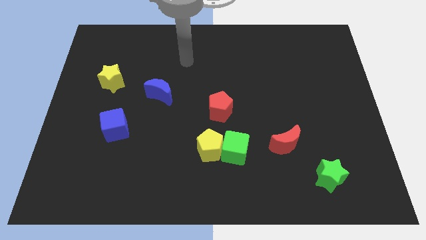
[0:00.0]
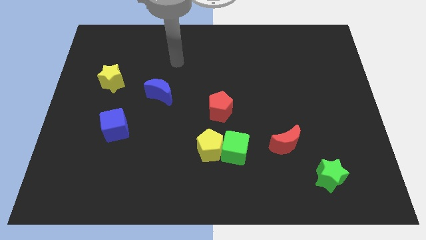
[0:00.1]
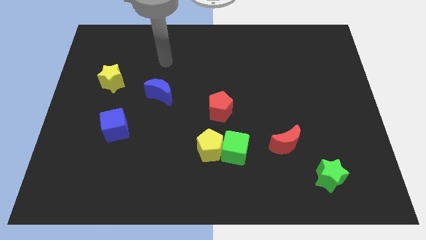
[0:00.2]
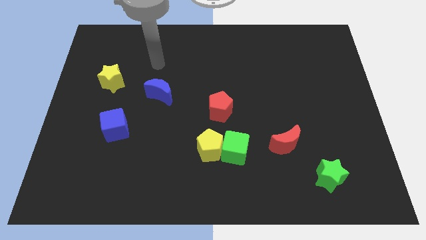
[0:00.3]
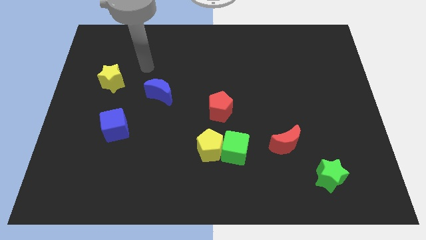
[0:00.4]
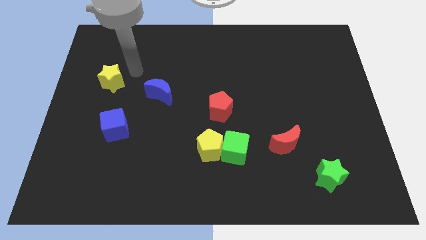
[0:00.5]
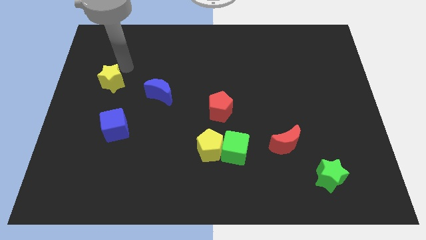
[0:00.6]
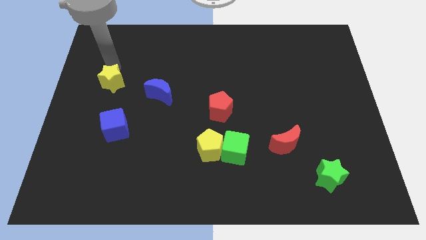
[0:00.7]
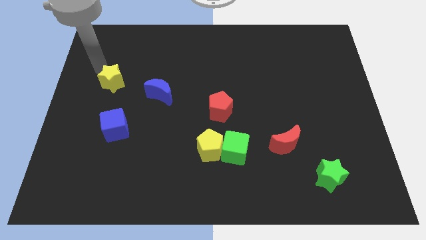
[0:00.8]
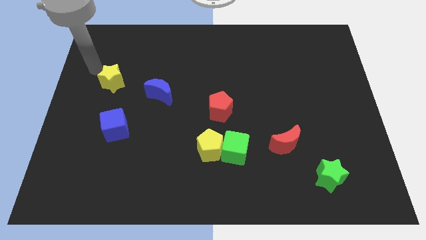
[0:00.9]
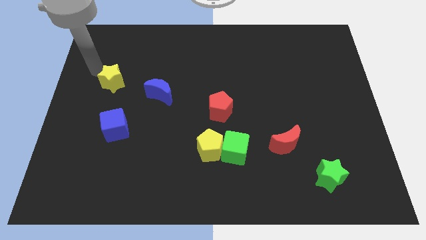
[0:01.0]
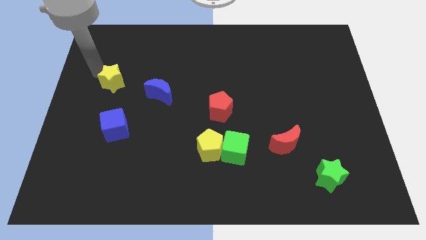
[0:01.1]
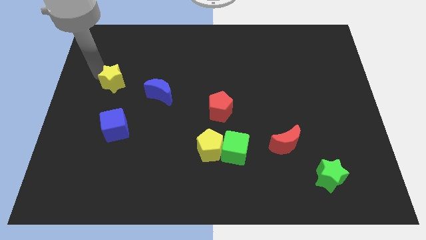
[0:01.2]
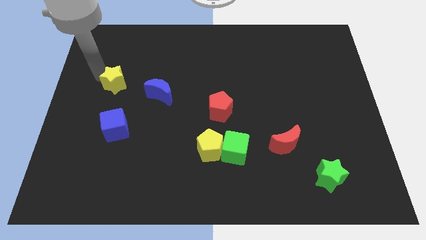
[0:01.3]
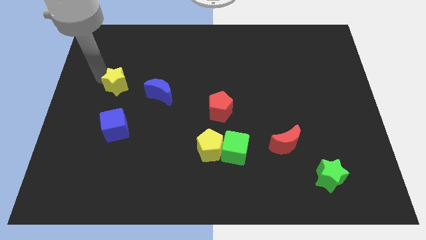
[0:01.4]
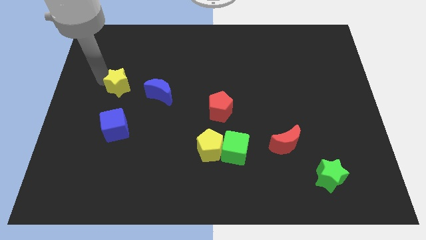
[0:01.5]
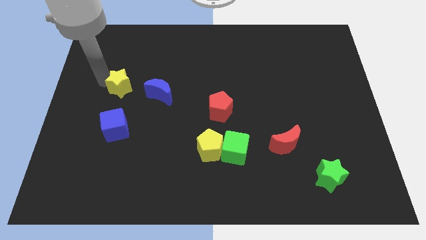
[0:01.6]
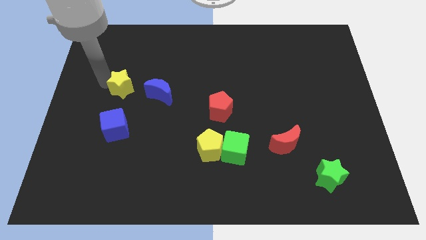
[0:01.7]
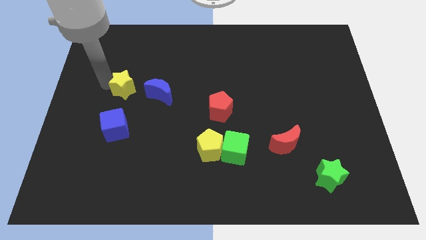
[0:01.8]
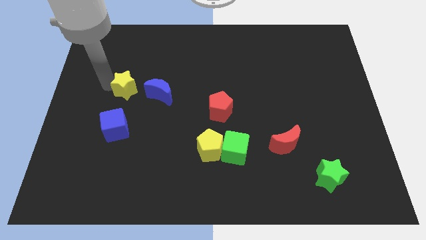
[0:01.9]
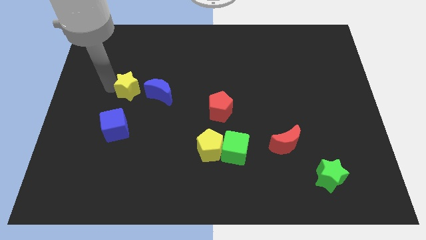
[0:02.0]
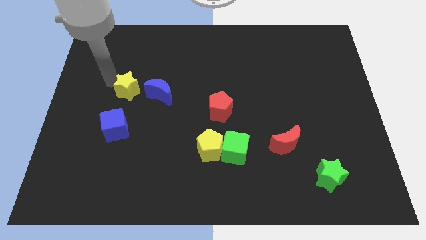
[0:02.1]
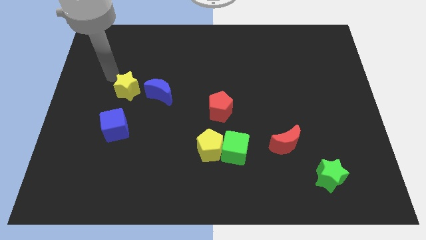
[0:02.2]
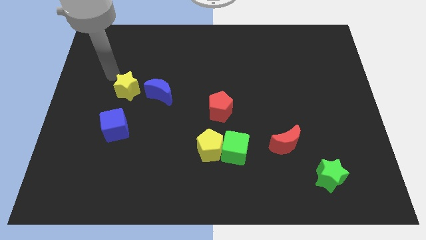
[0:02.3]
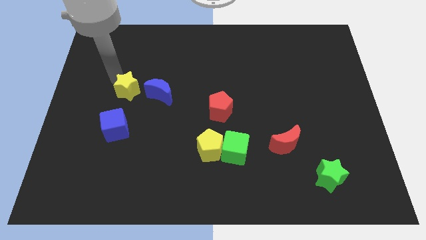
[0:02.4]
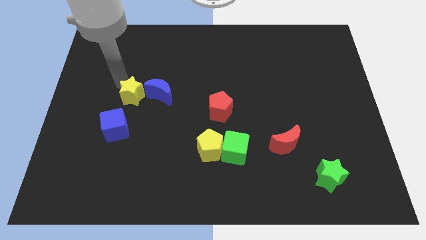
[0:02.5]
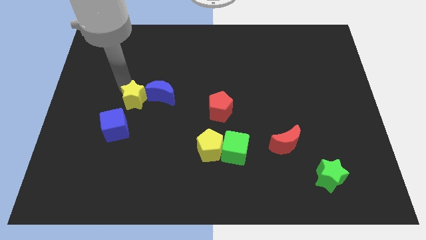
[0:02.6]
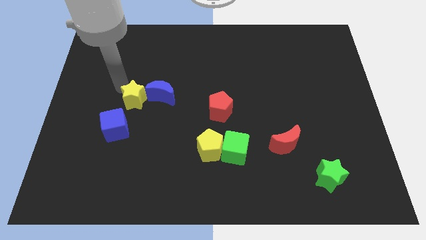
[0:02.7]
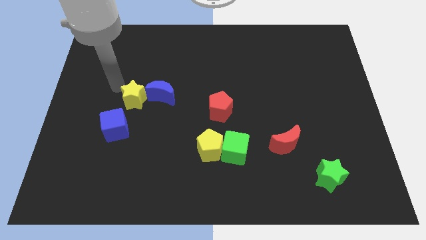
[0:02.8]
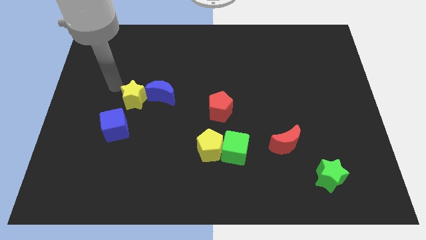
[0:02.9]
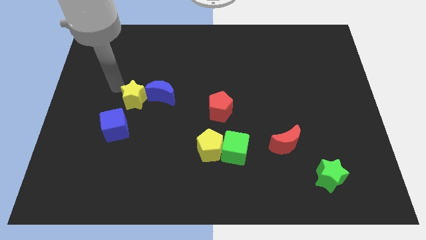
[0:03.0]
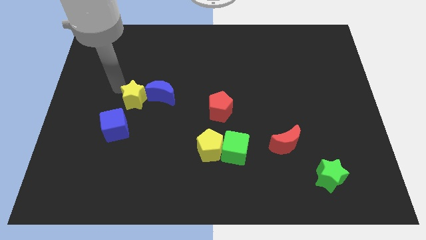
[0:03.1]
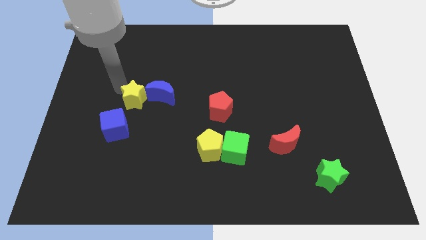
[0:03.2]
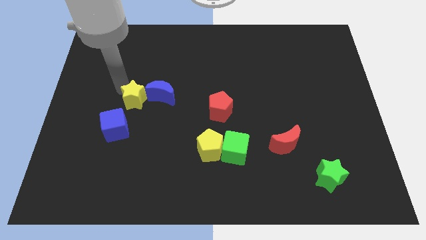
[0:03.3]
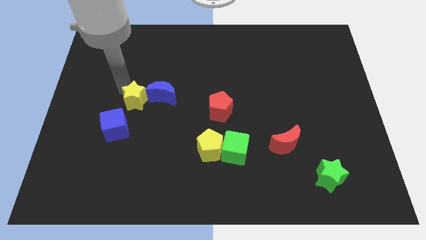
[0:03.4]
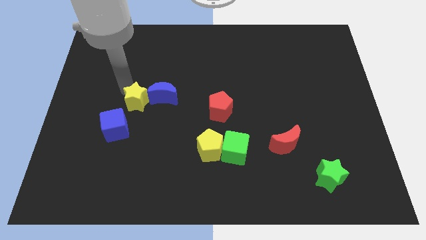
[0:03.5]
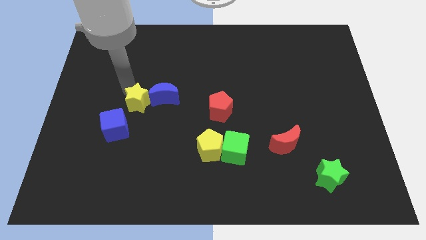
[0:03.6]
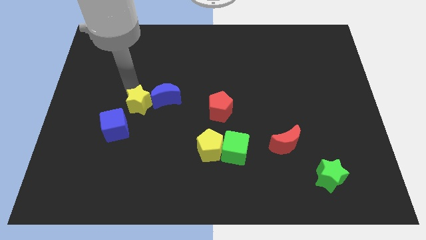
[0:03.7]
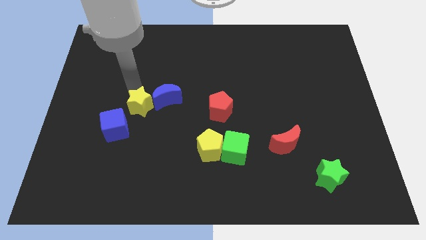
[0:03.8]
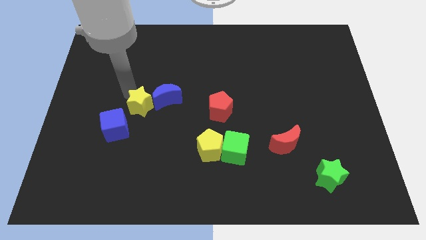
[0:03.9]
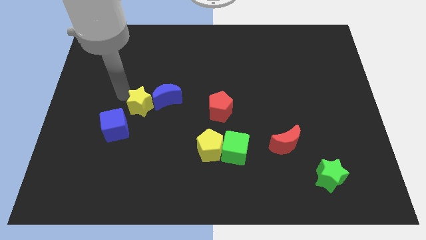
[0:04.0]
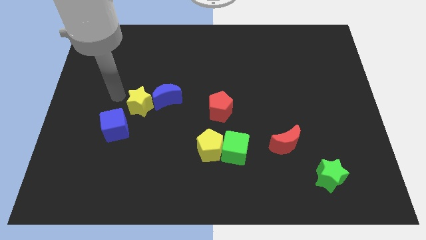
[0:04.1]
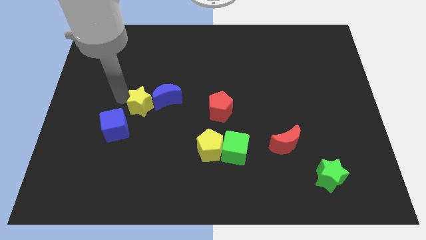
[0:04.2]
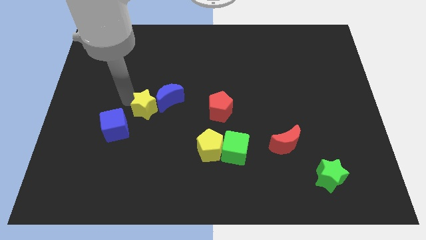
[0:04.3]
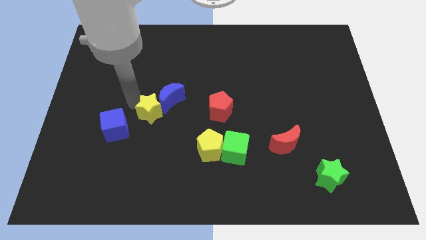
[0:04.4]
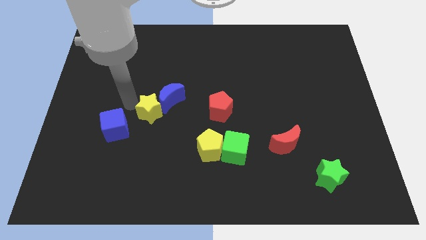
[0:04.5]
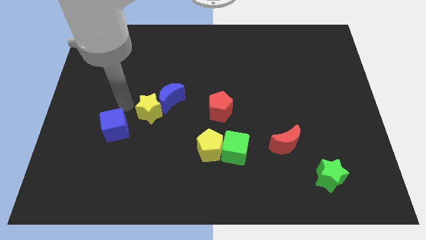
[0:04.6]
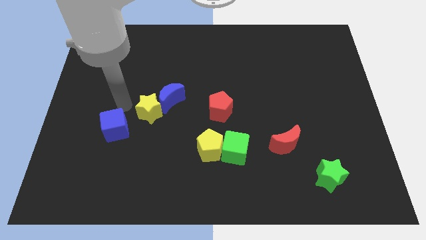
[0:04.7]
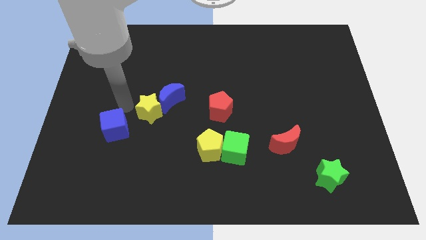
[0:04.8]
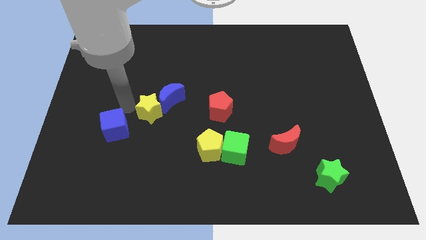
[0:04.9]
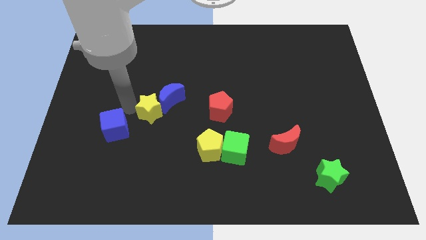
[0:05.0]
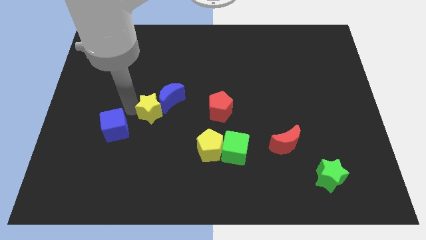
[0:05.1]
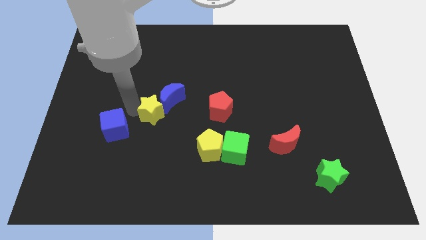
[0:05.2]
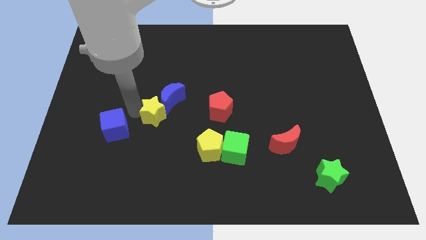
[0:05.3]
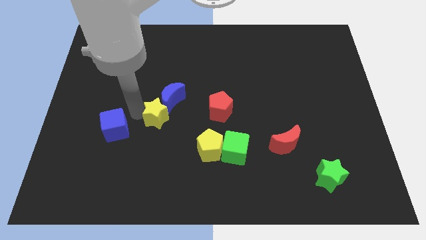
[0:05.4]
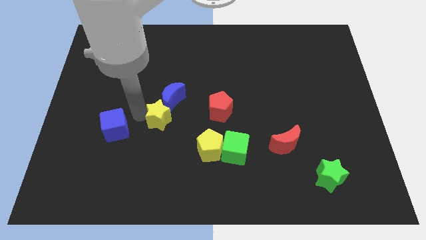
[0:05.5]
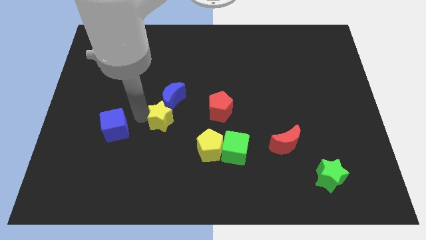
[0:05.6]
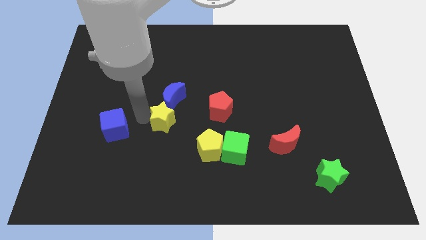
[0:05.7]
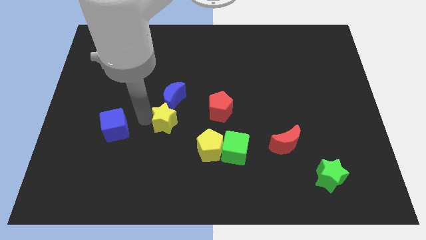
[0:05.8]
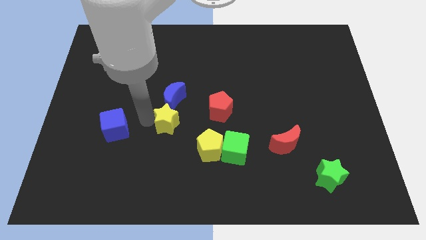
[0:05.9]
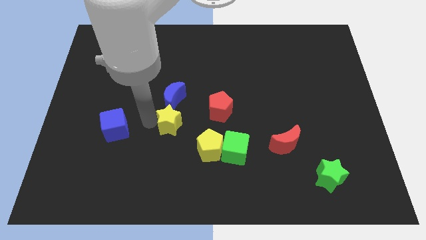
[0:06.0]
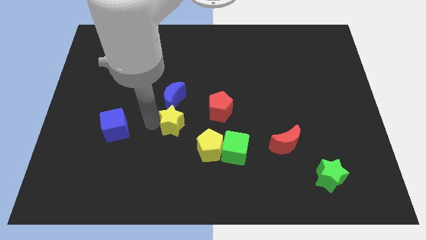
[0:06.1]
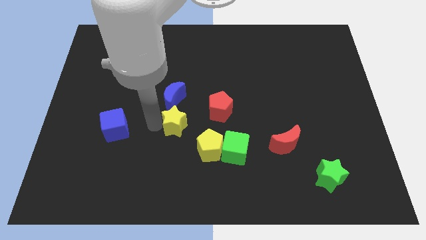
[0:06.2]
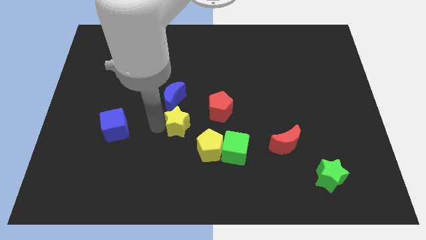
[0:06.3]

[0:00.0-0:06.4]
put the yellow star diagonally down and to the left of the red pentagon
